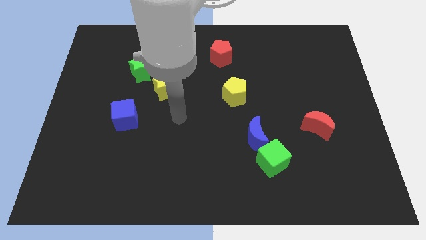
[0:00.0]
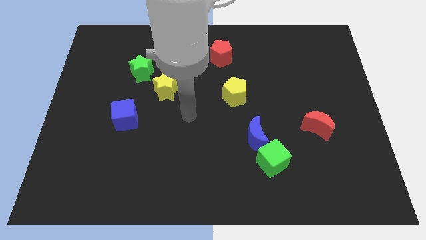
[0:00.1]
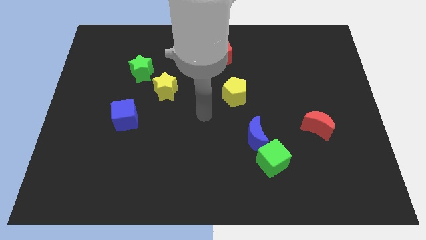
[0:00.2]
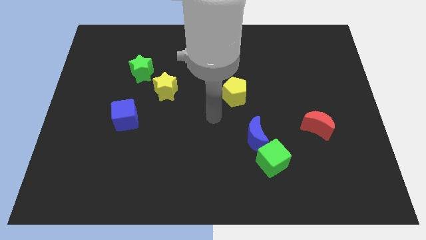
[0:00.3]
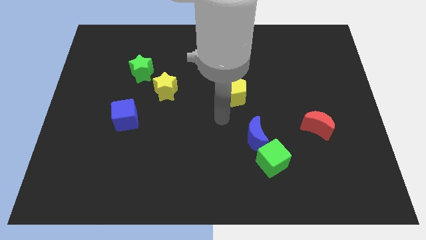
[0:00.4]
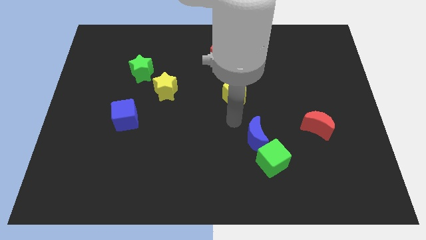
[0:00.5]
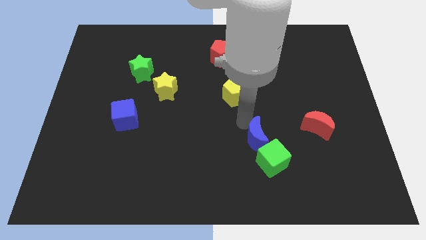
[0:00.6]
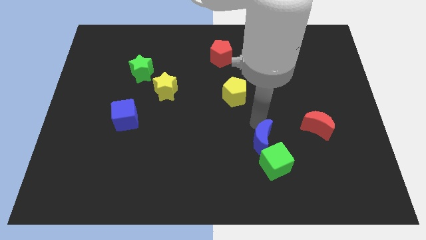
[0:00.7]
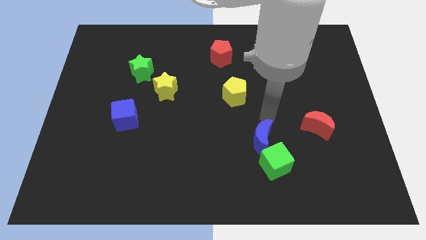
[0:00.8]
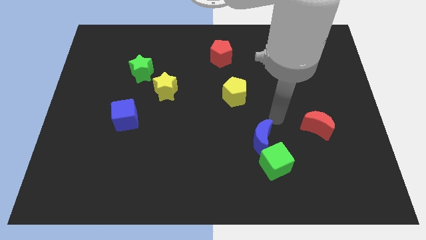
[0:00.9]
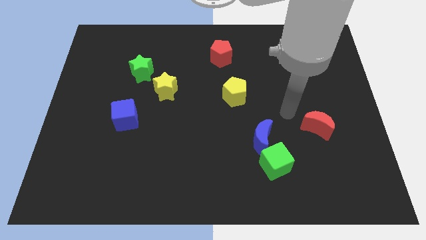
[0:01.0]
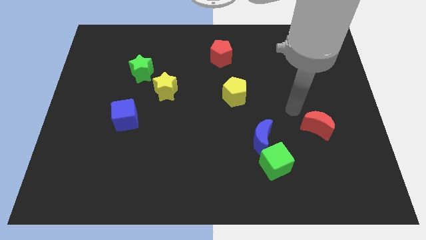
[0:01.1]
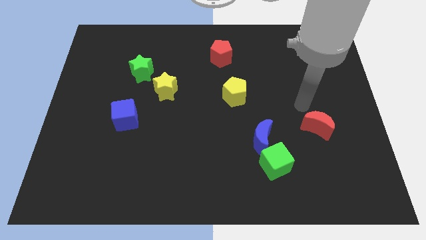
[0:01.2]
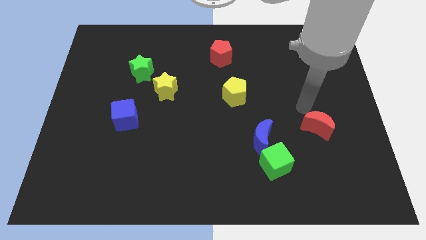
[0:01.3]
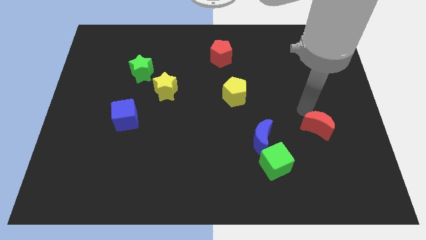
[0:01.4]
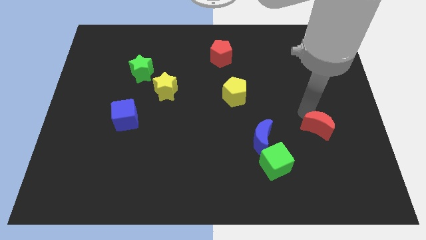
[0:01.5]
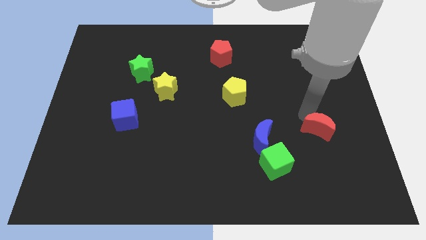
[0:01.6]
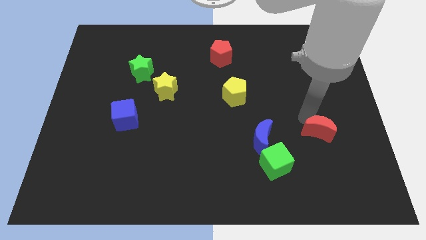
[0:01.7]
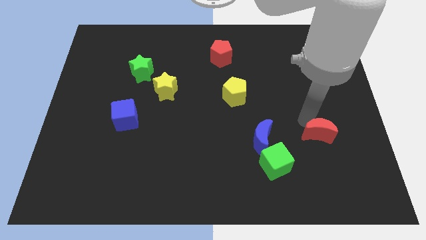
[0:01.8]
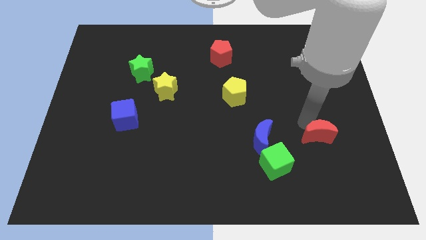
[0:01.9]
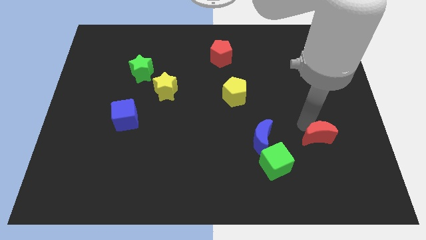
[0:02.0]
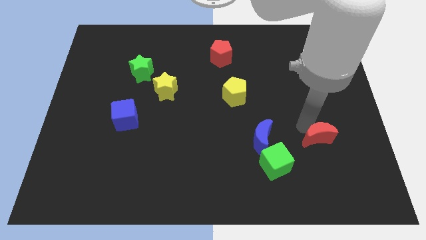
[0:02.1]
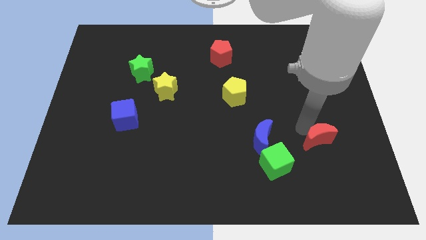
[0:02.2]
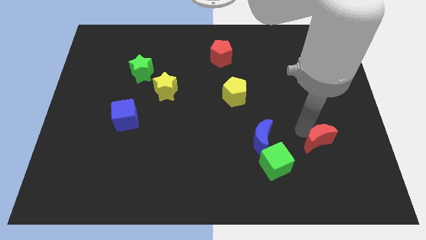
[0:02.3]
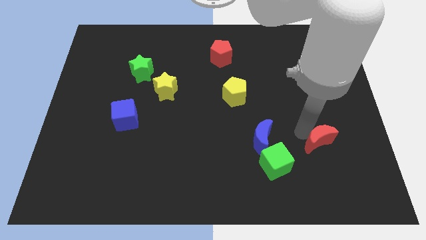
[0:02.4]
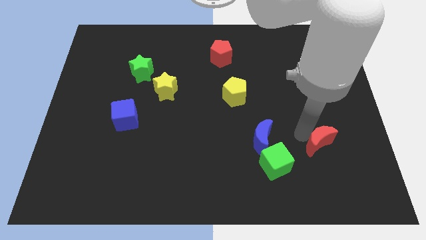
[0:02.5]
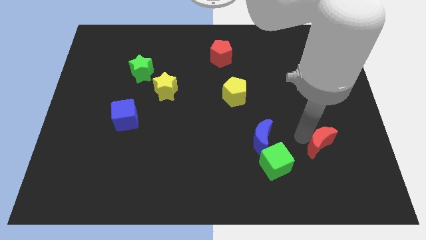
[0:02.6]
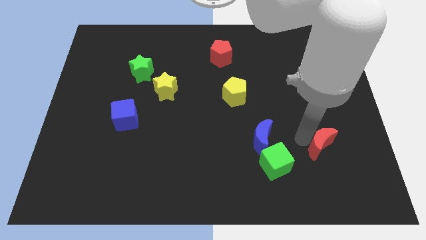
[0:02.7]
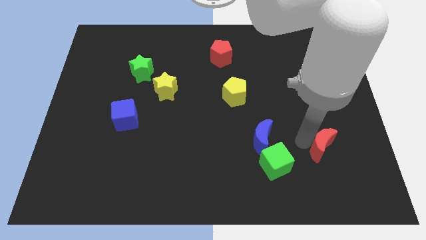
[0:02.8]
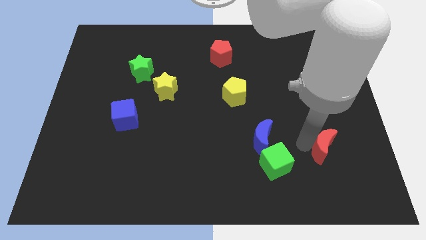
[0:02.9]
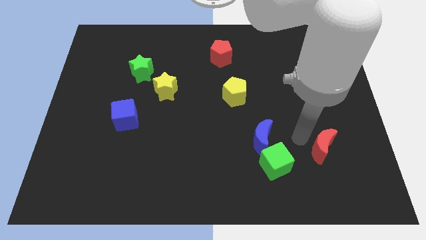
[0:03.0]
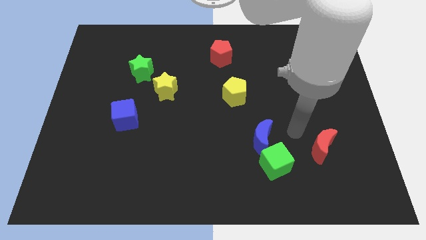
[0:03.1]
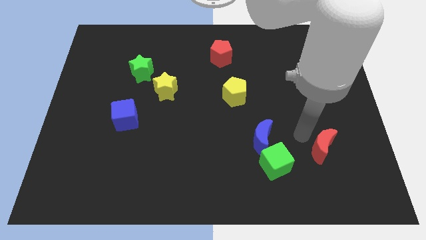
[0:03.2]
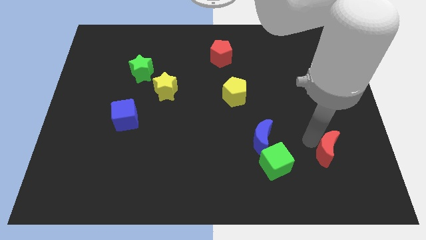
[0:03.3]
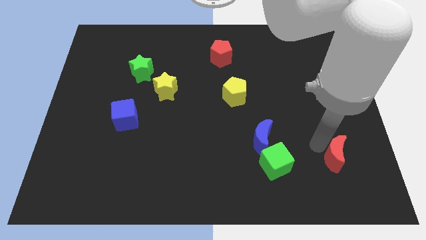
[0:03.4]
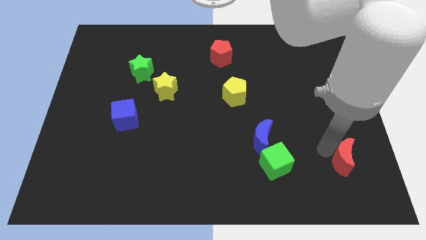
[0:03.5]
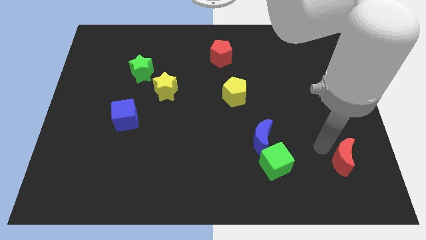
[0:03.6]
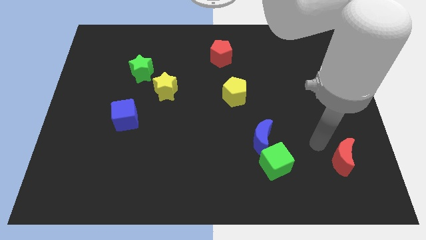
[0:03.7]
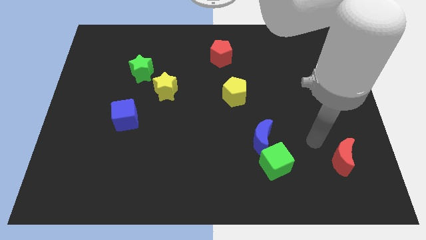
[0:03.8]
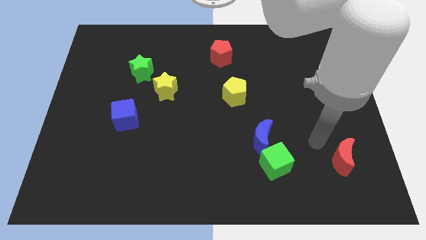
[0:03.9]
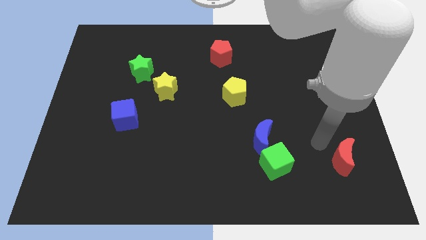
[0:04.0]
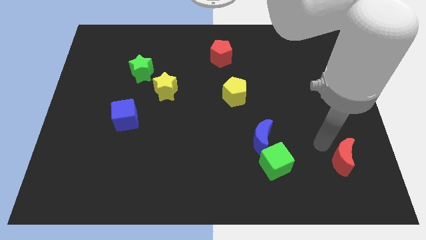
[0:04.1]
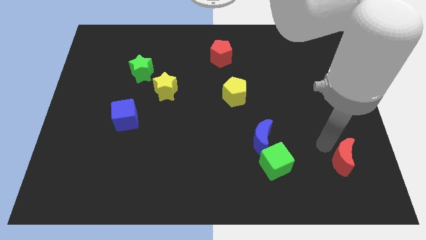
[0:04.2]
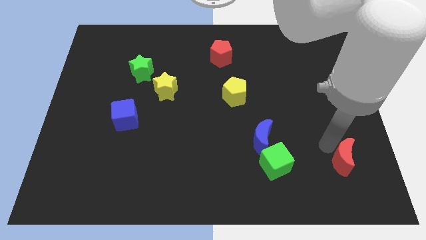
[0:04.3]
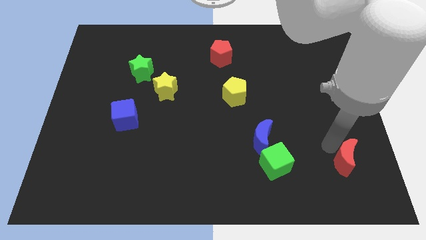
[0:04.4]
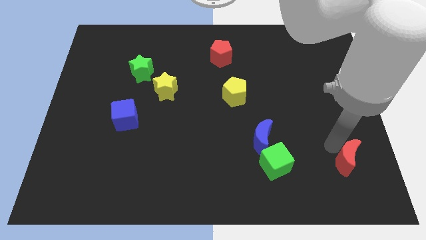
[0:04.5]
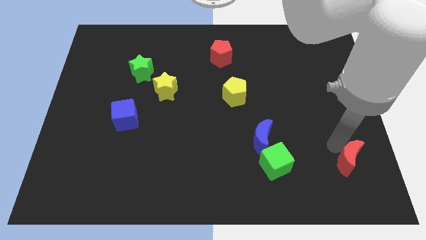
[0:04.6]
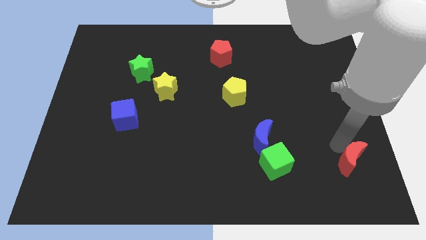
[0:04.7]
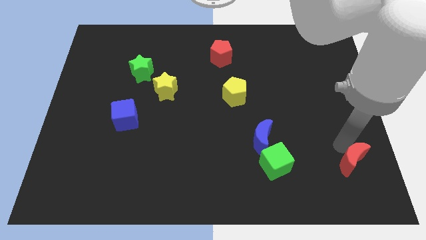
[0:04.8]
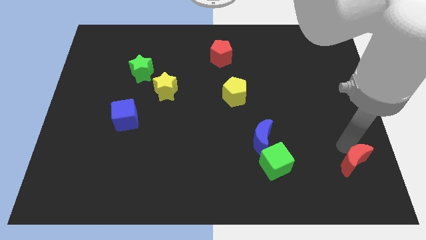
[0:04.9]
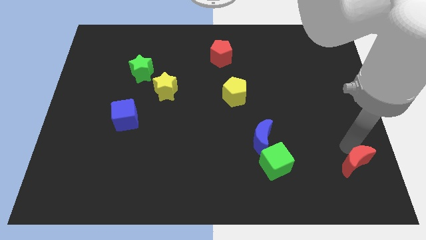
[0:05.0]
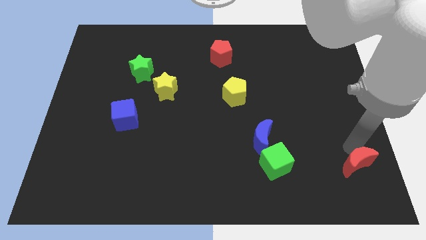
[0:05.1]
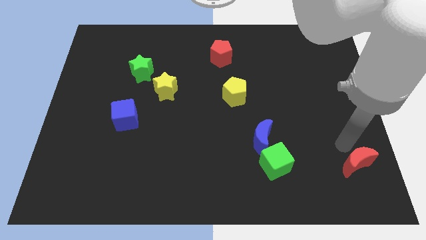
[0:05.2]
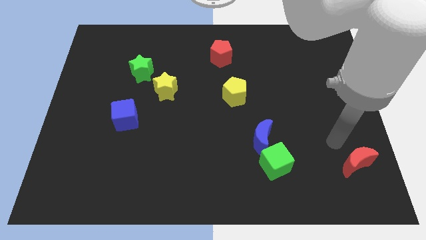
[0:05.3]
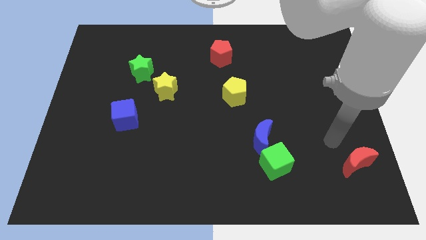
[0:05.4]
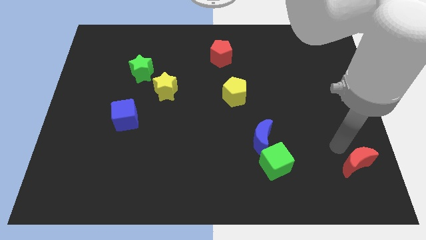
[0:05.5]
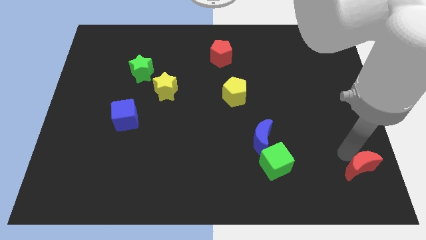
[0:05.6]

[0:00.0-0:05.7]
slide the red moon to the bottom right corner

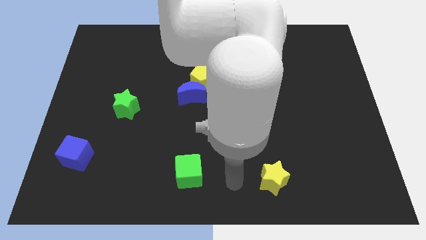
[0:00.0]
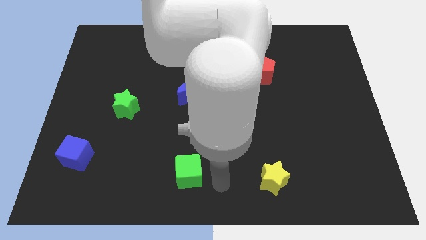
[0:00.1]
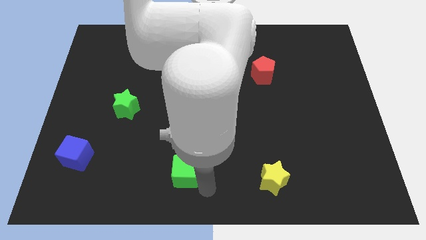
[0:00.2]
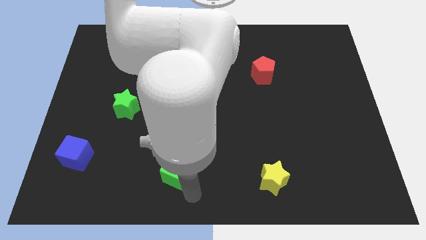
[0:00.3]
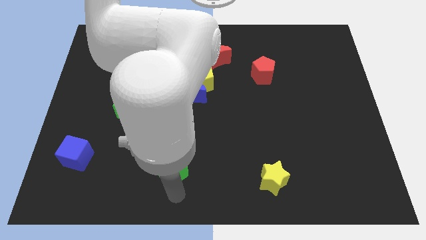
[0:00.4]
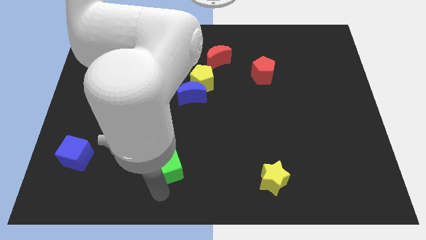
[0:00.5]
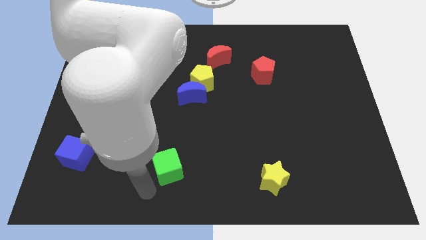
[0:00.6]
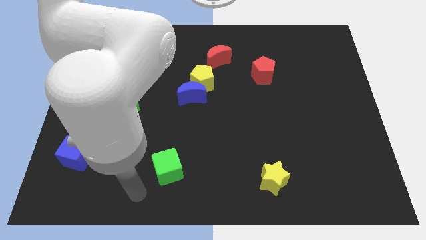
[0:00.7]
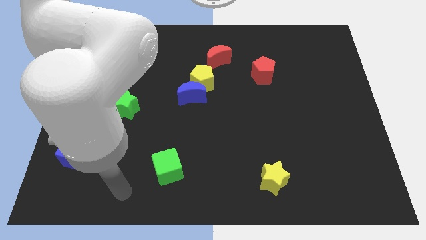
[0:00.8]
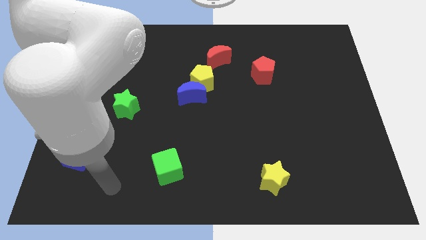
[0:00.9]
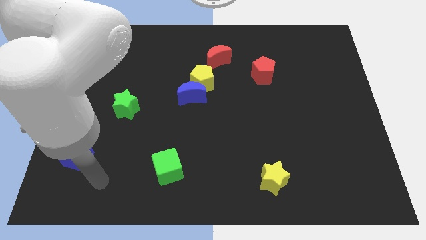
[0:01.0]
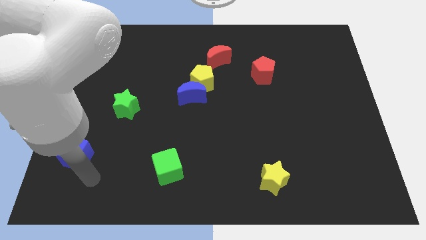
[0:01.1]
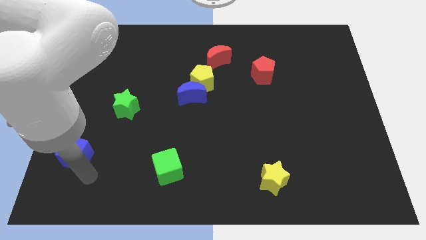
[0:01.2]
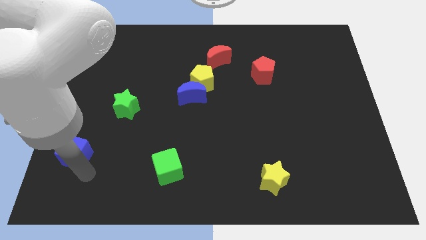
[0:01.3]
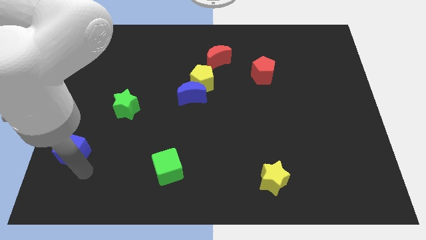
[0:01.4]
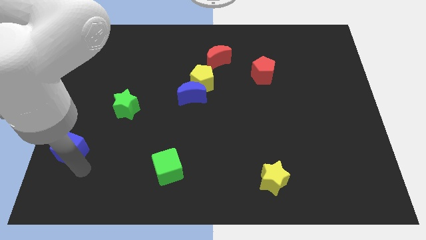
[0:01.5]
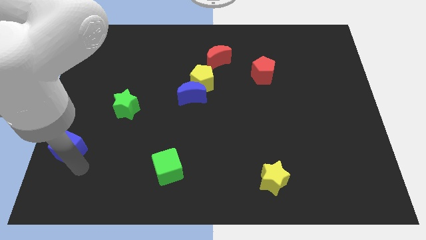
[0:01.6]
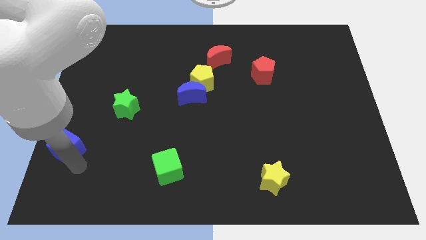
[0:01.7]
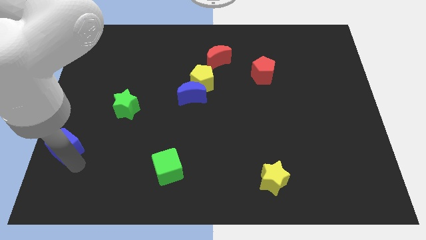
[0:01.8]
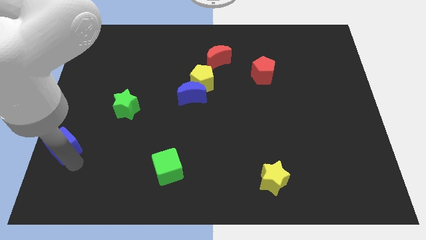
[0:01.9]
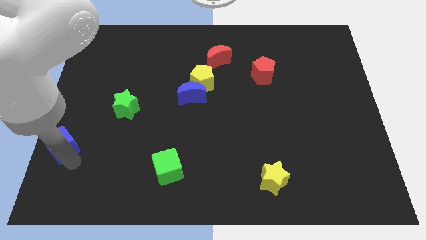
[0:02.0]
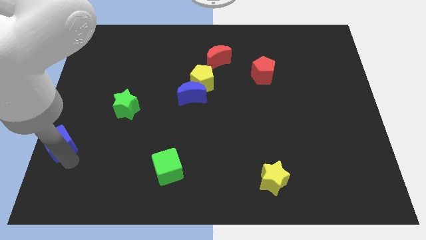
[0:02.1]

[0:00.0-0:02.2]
push the blue cube to the left side
